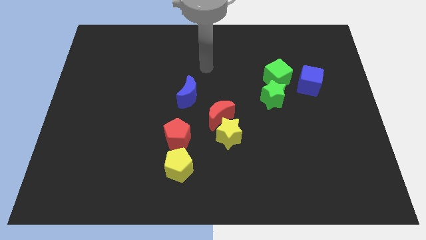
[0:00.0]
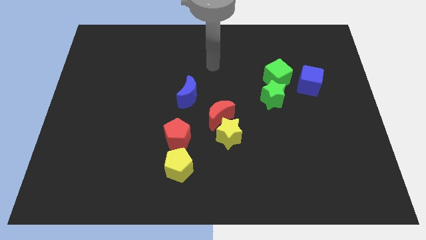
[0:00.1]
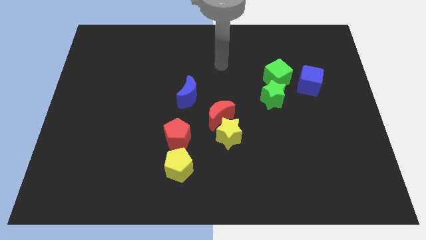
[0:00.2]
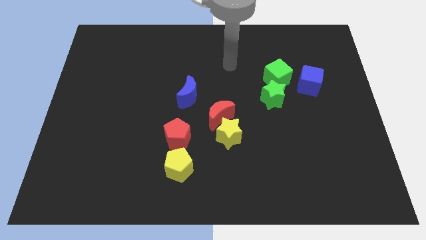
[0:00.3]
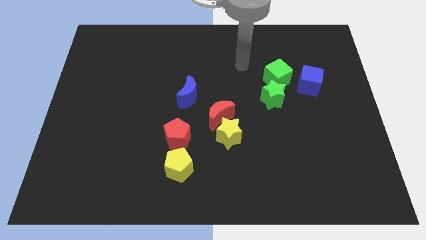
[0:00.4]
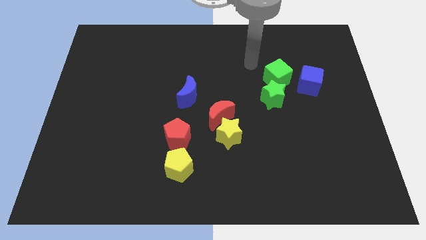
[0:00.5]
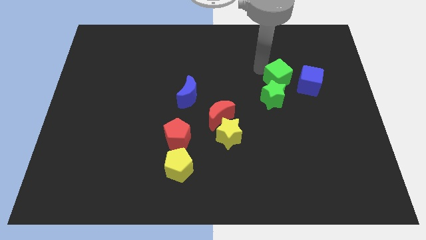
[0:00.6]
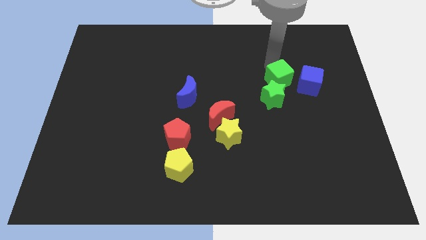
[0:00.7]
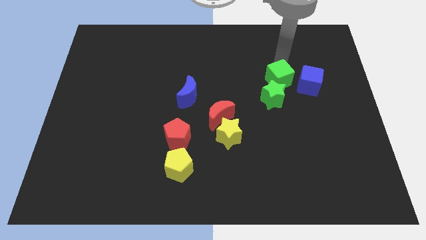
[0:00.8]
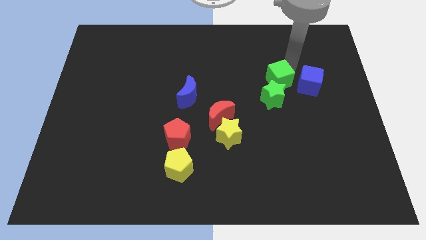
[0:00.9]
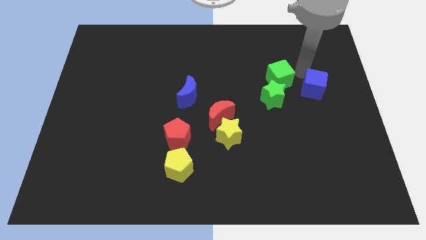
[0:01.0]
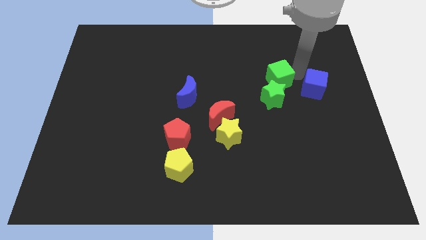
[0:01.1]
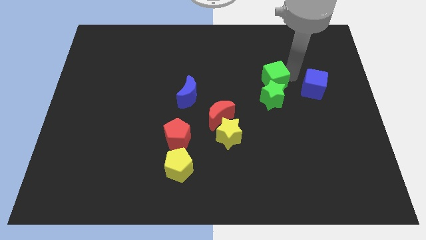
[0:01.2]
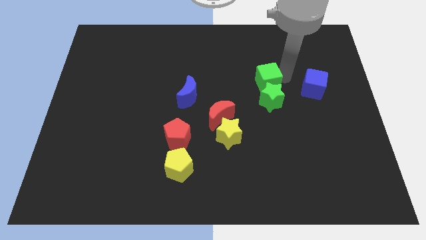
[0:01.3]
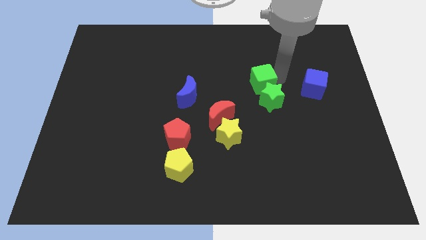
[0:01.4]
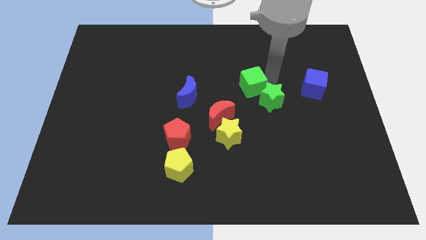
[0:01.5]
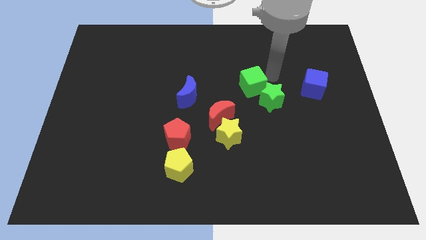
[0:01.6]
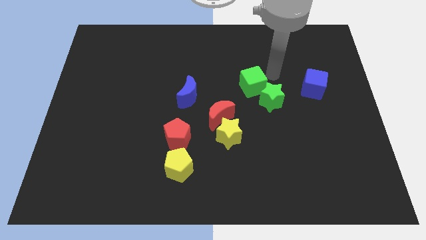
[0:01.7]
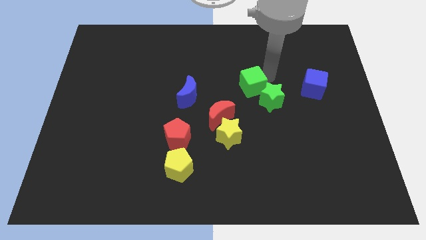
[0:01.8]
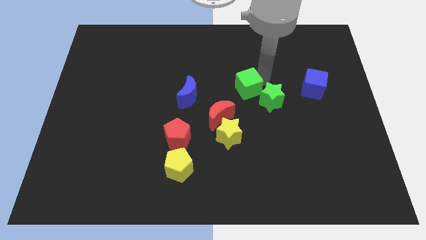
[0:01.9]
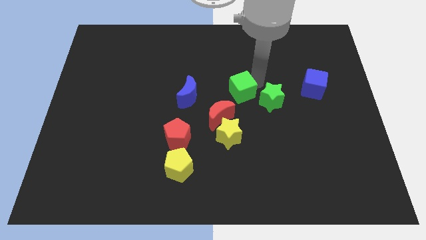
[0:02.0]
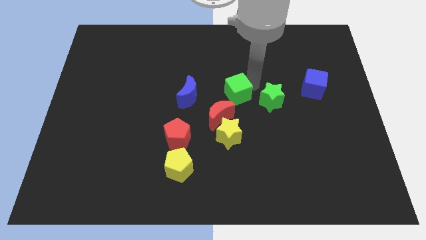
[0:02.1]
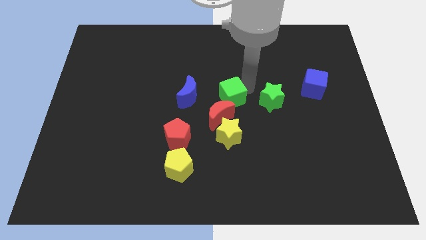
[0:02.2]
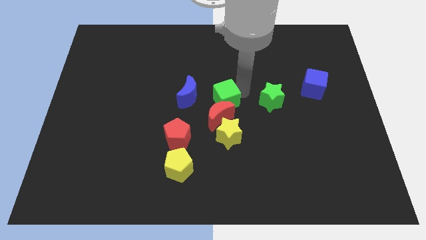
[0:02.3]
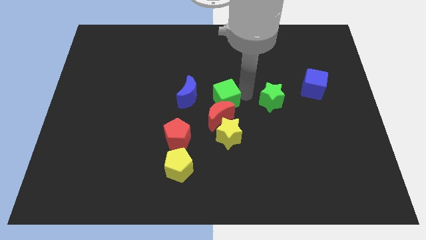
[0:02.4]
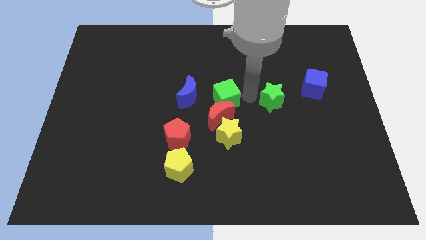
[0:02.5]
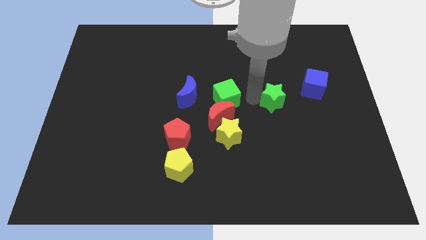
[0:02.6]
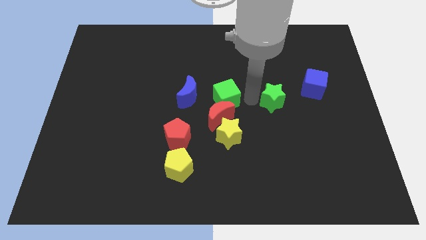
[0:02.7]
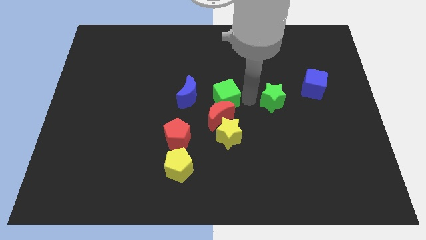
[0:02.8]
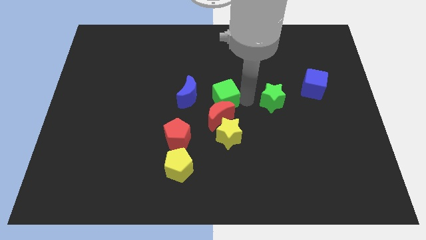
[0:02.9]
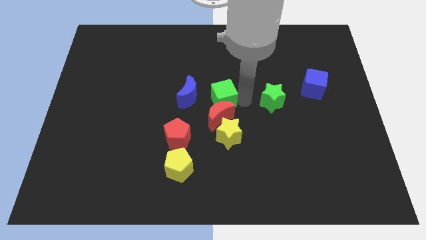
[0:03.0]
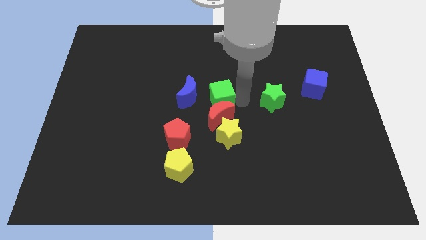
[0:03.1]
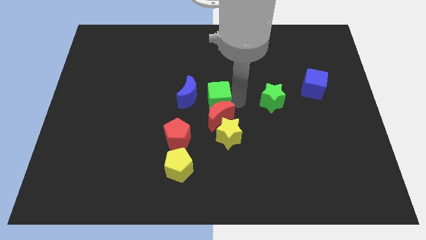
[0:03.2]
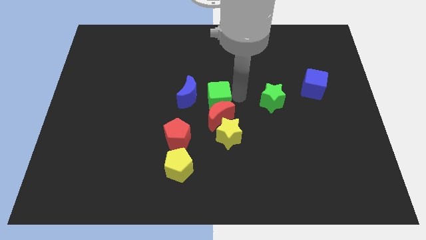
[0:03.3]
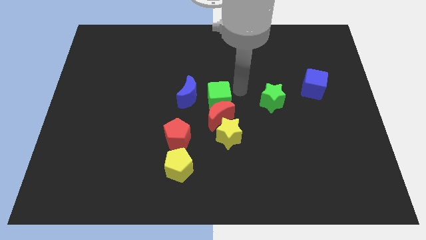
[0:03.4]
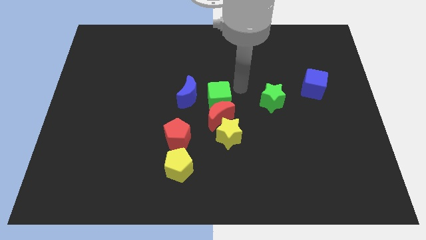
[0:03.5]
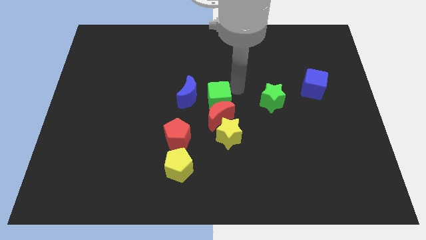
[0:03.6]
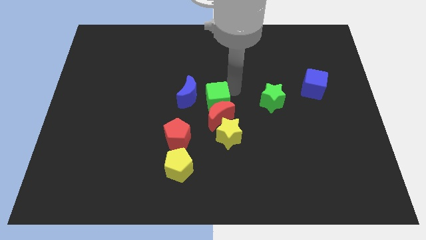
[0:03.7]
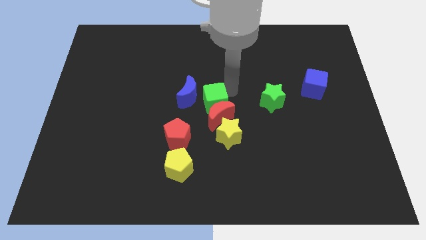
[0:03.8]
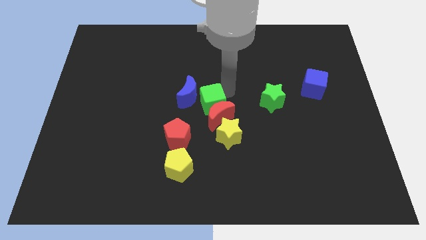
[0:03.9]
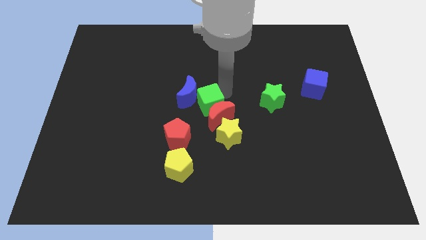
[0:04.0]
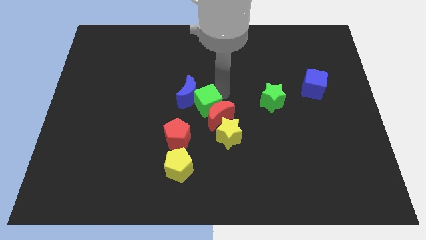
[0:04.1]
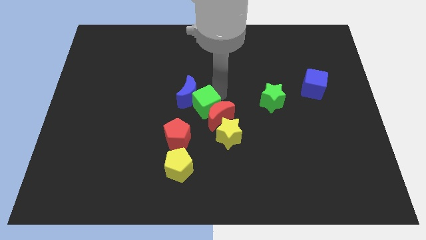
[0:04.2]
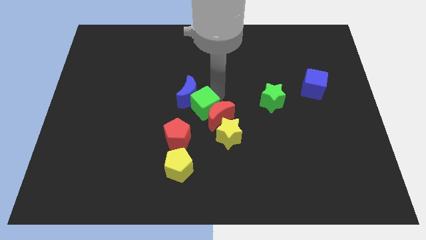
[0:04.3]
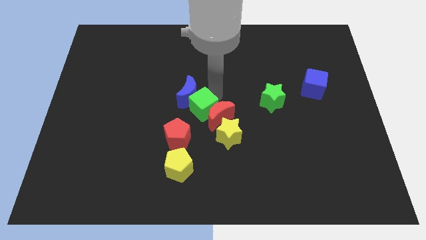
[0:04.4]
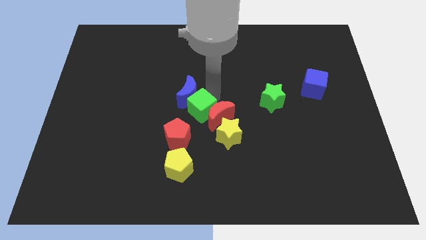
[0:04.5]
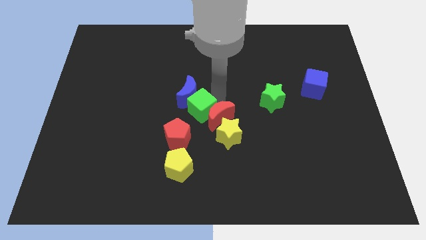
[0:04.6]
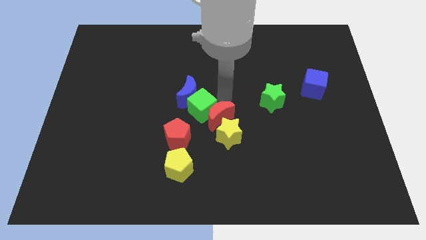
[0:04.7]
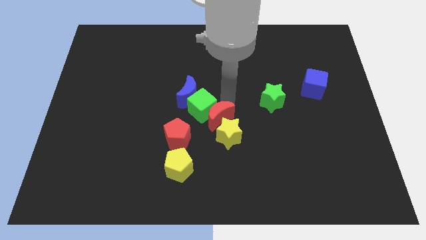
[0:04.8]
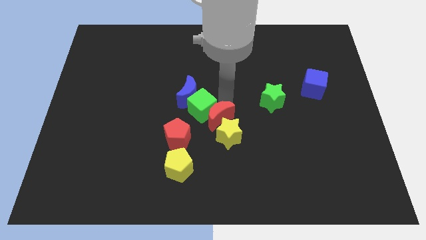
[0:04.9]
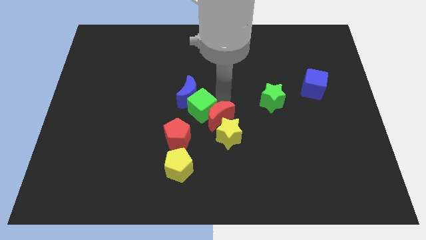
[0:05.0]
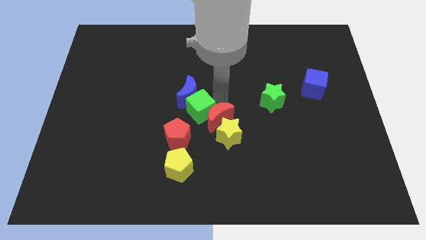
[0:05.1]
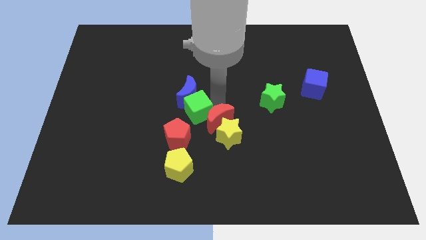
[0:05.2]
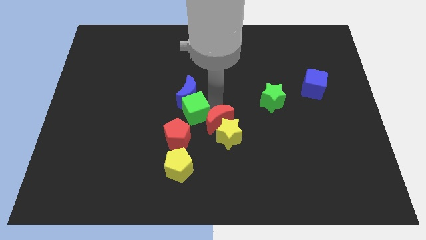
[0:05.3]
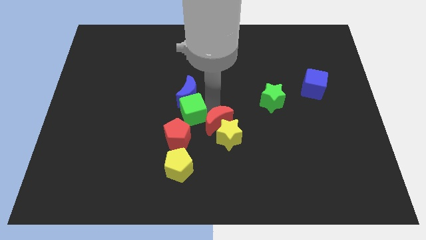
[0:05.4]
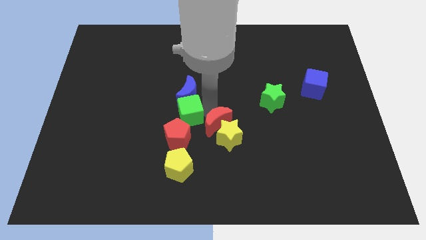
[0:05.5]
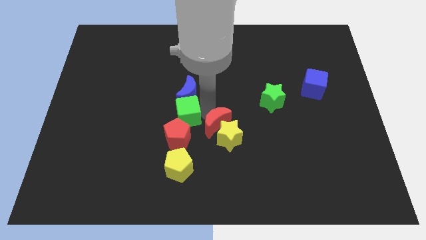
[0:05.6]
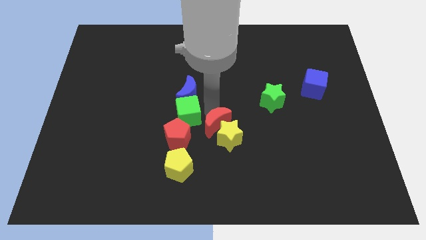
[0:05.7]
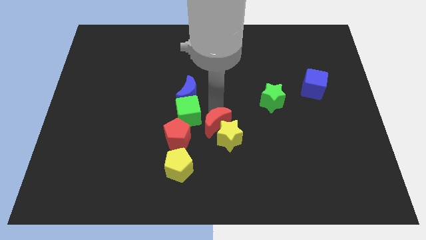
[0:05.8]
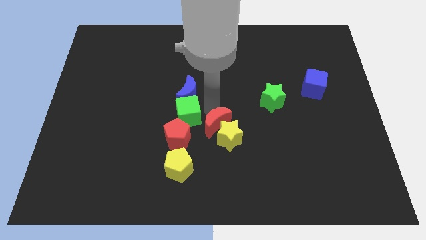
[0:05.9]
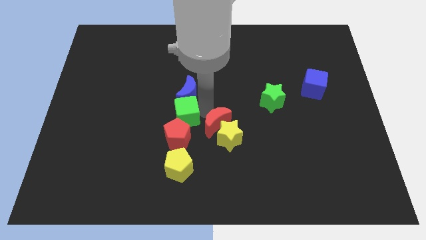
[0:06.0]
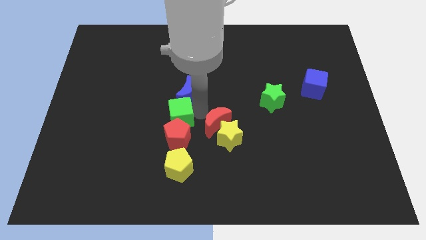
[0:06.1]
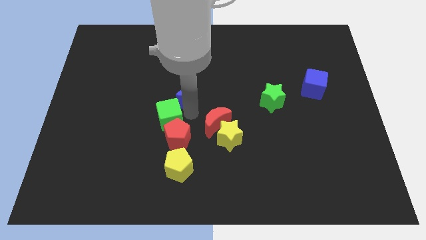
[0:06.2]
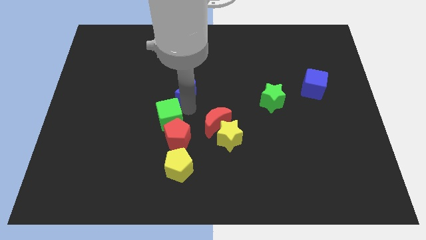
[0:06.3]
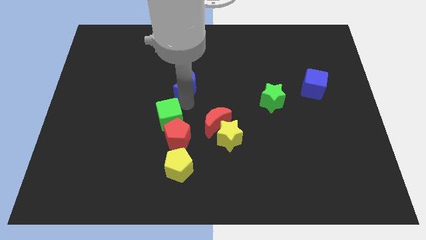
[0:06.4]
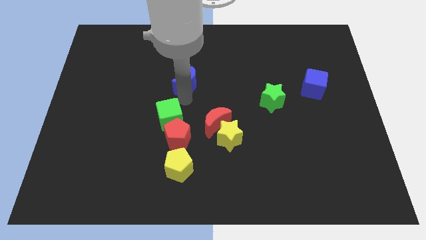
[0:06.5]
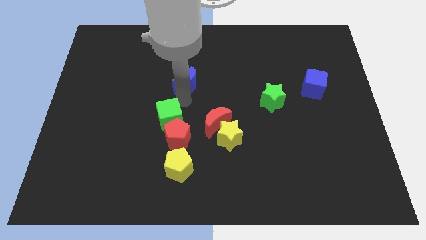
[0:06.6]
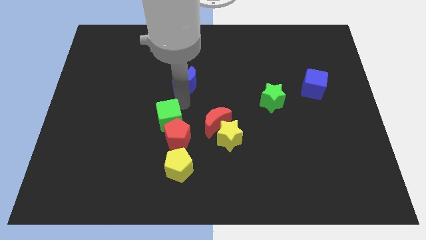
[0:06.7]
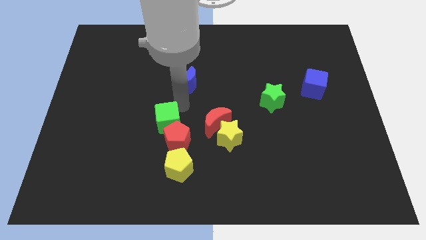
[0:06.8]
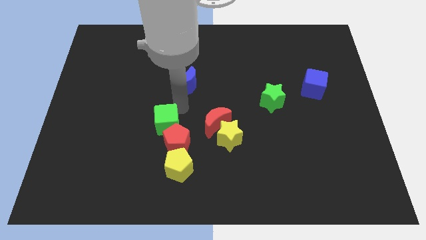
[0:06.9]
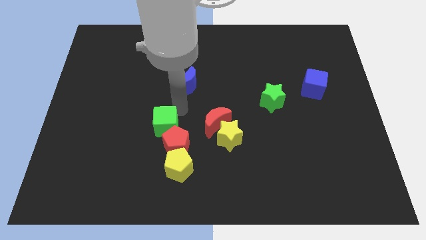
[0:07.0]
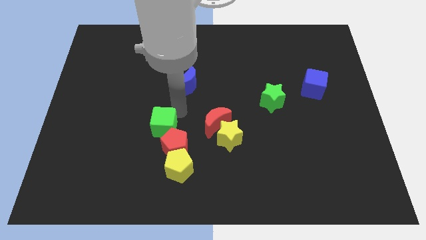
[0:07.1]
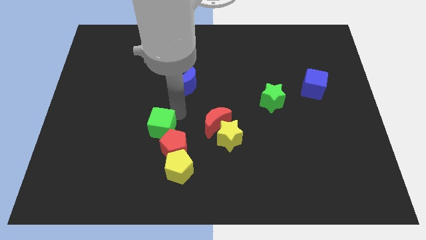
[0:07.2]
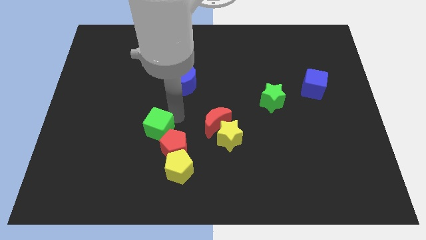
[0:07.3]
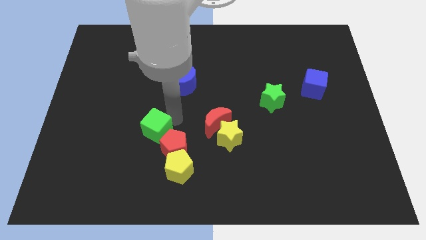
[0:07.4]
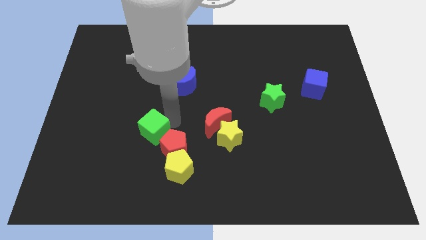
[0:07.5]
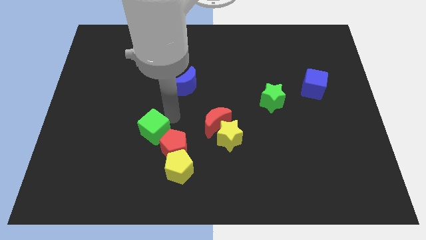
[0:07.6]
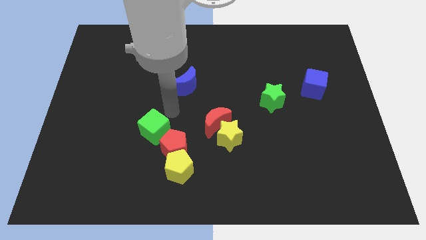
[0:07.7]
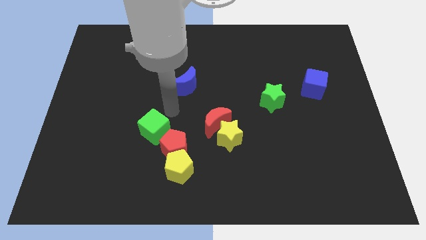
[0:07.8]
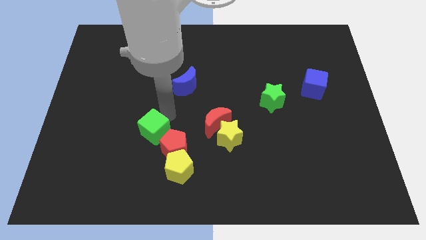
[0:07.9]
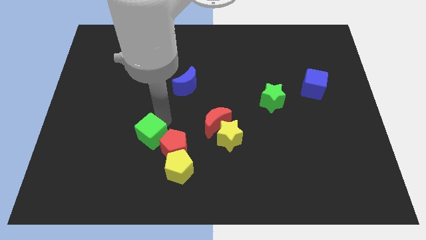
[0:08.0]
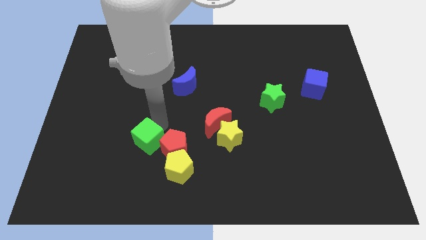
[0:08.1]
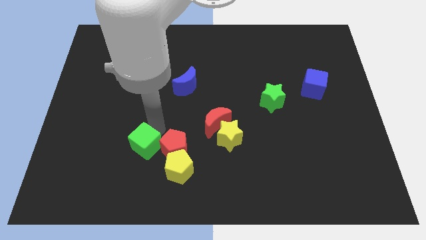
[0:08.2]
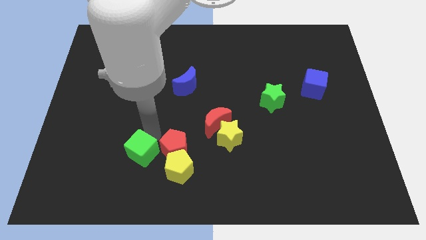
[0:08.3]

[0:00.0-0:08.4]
move the green cube to the left side of the yellow pentagon
